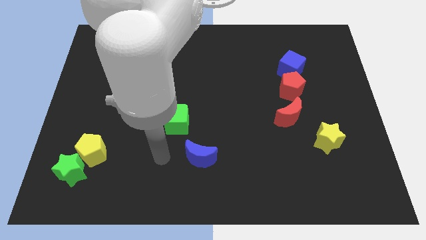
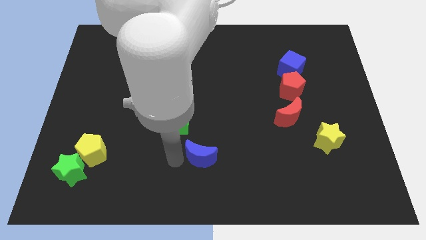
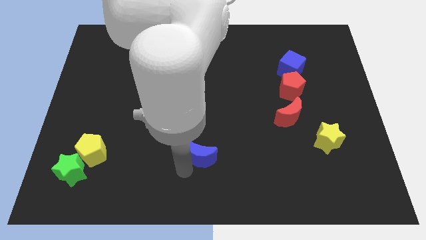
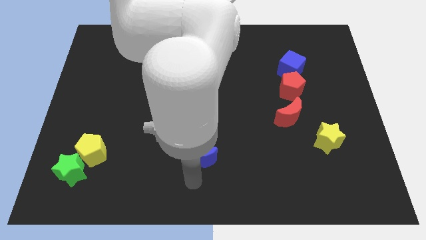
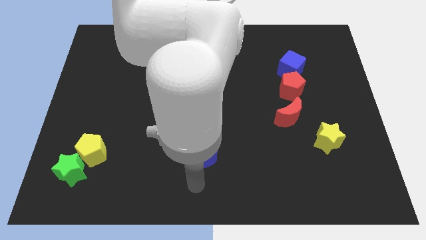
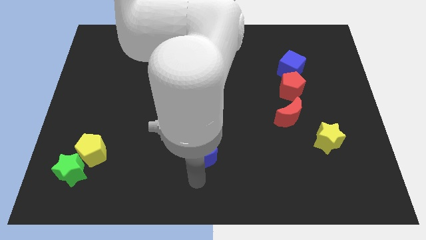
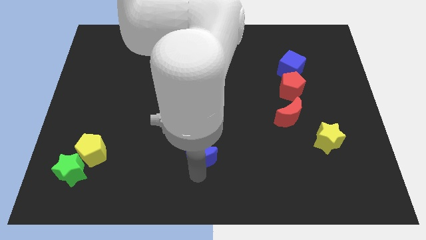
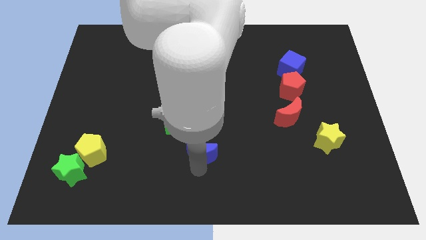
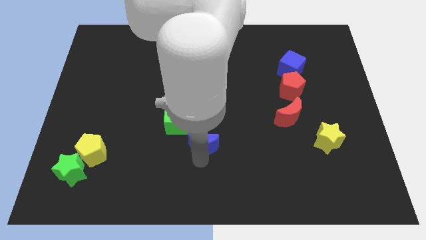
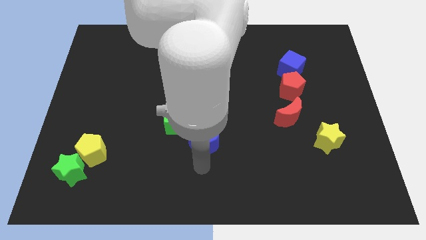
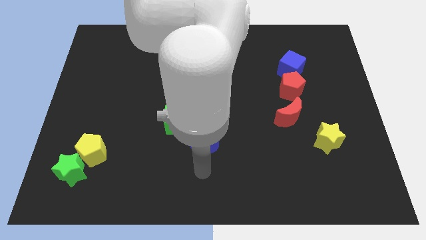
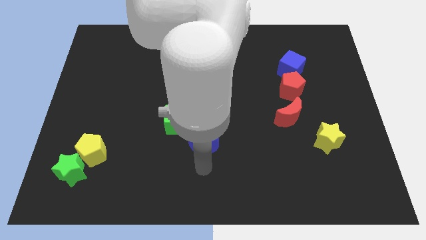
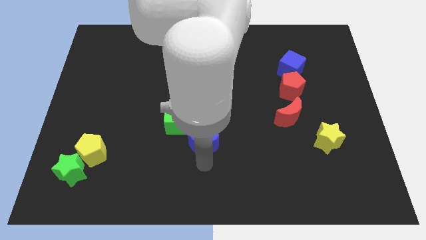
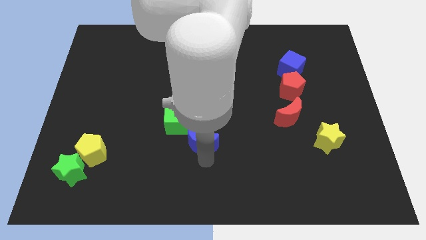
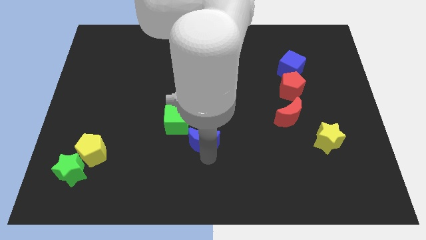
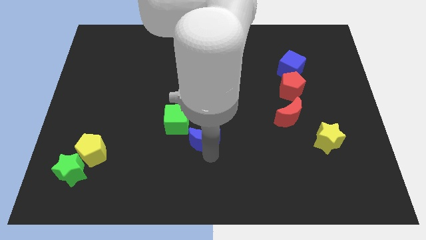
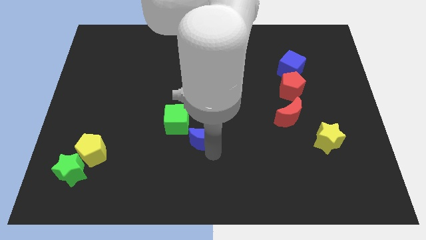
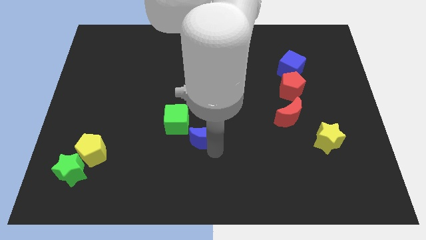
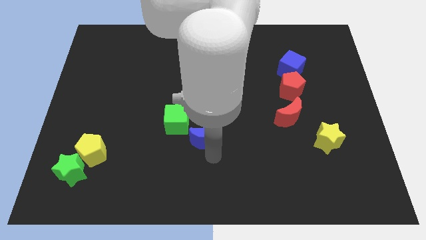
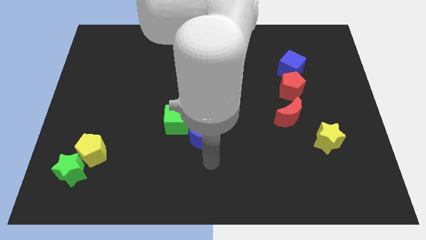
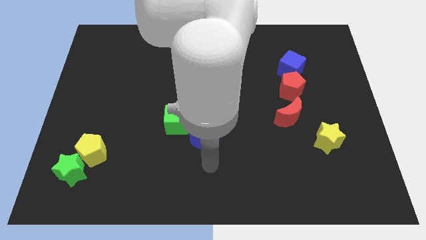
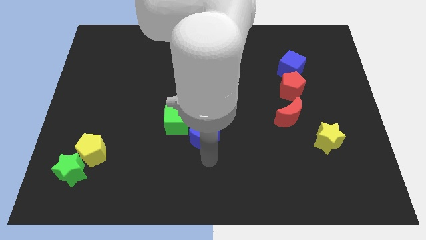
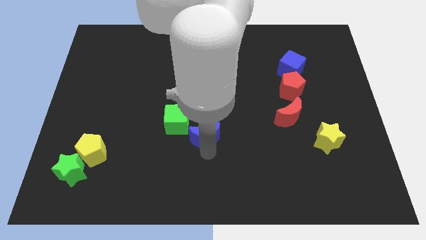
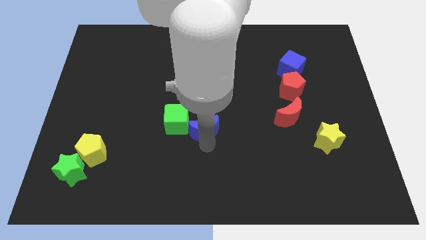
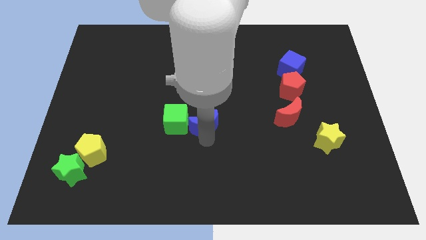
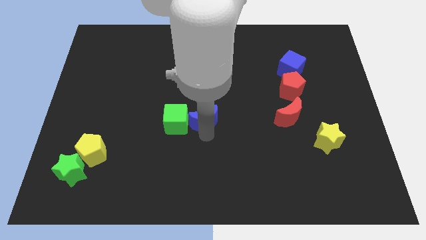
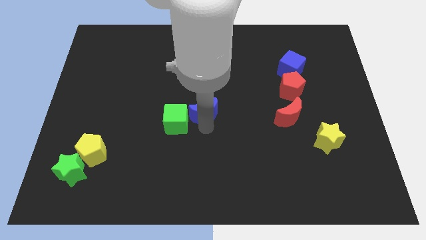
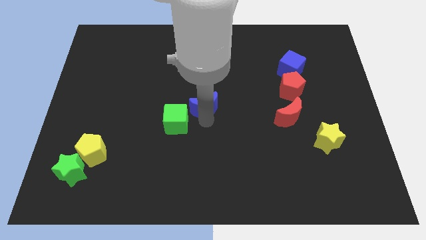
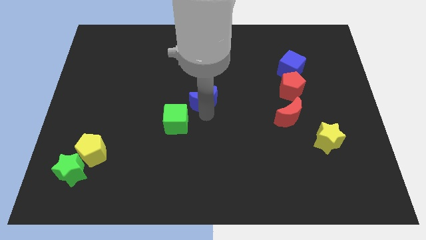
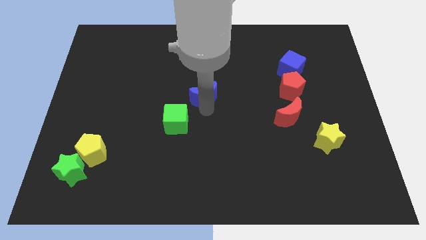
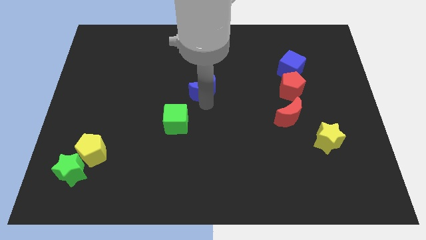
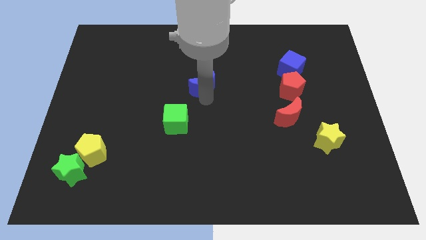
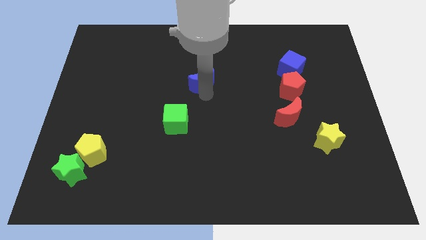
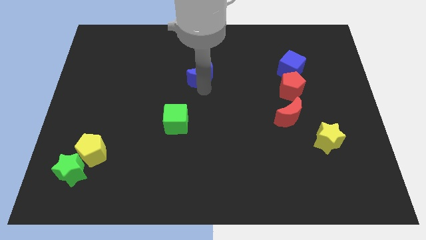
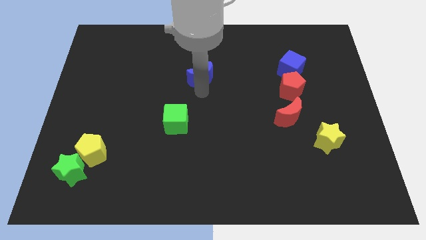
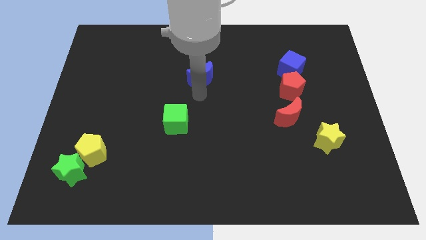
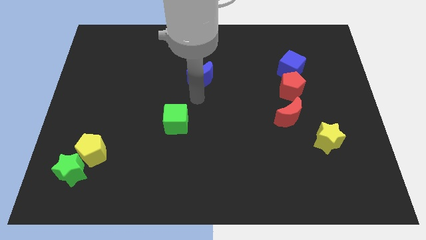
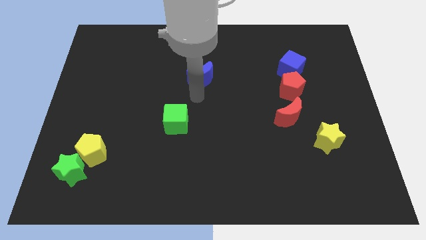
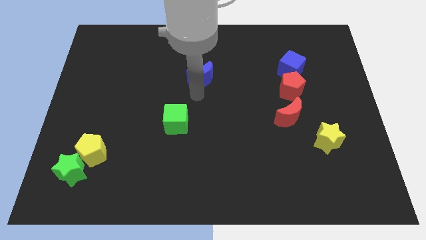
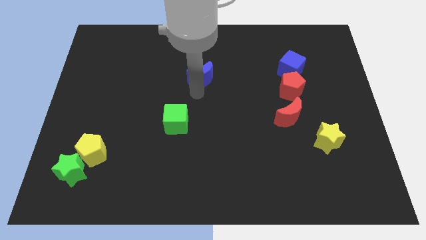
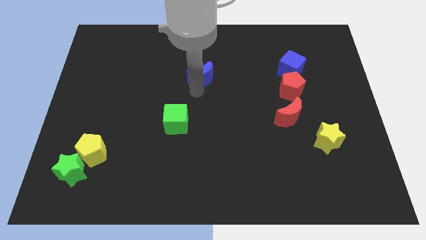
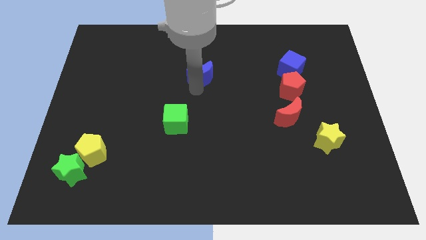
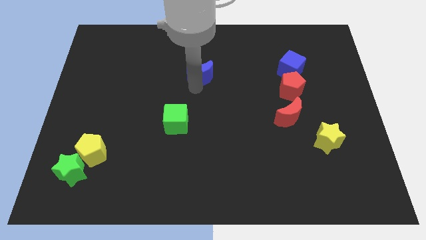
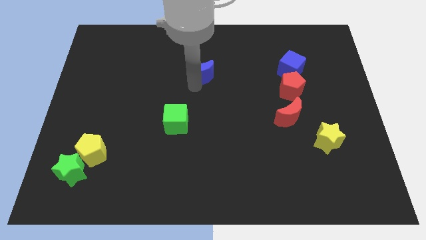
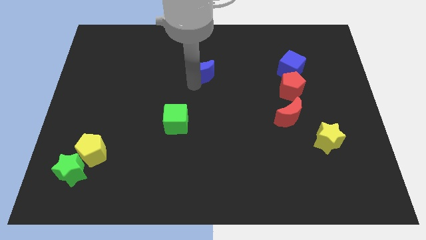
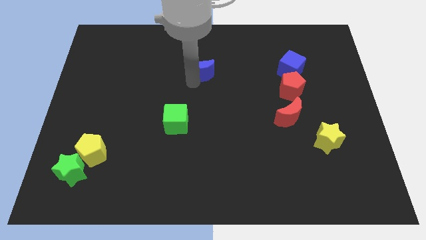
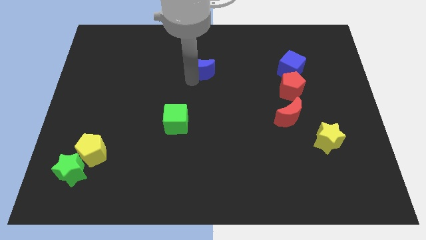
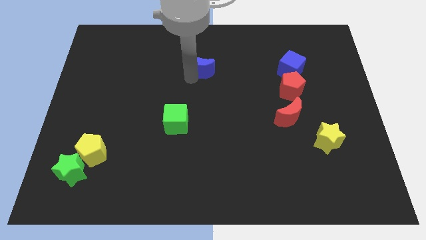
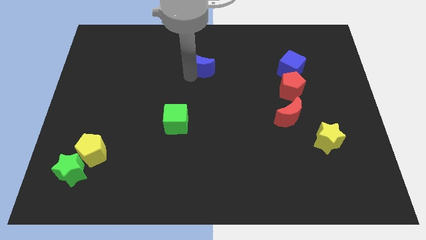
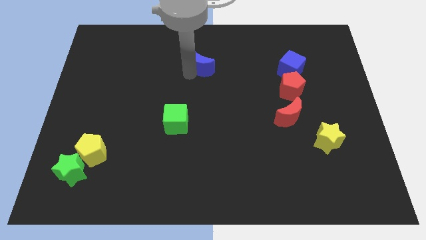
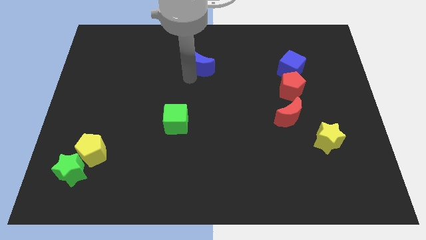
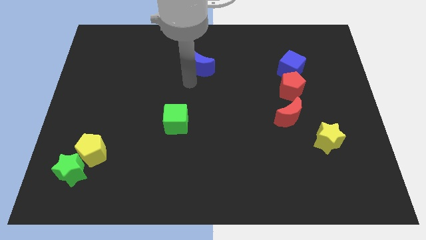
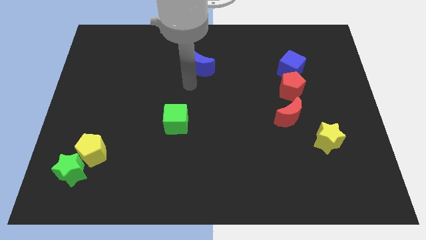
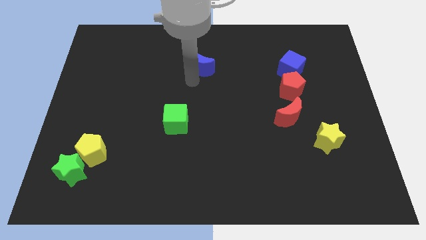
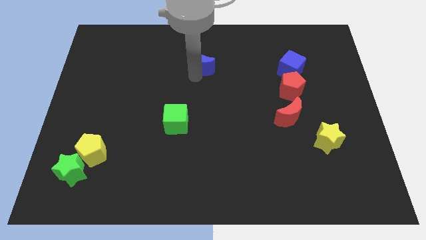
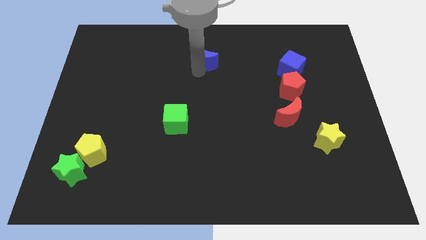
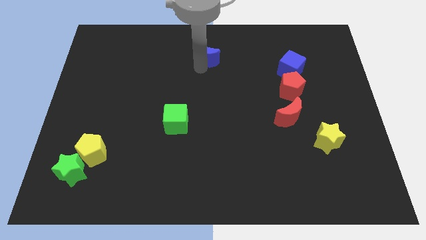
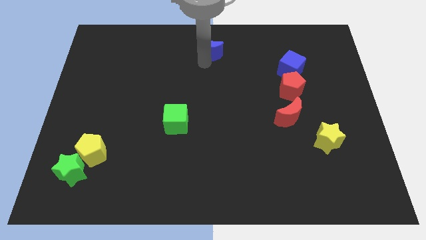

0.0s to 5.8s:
move the blue moon to the towards your base

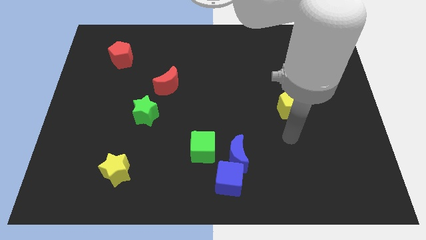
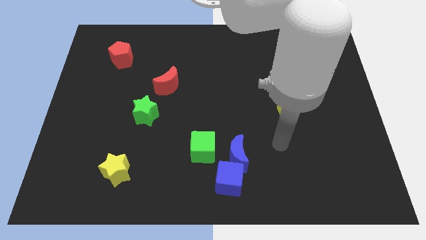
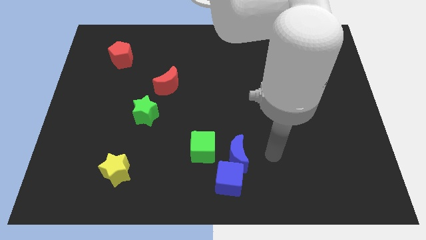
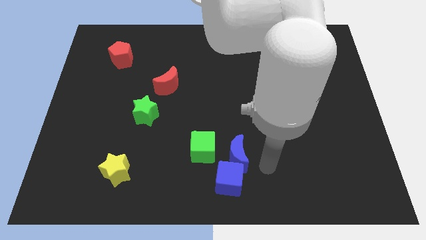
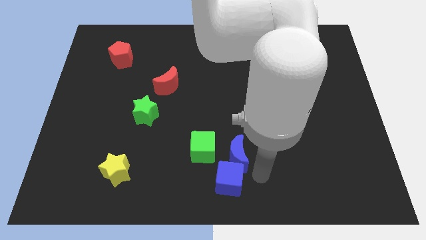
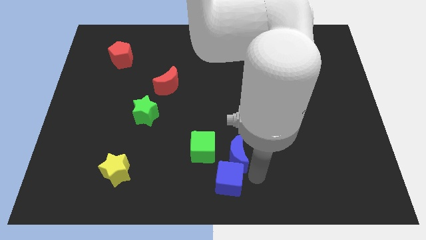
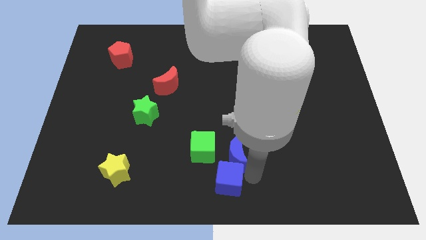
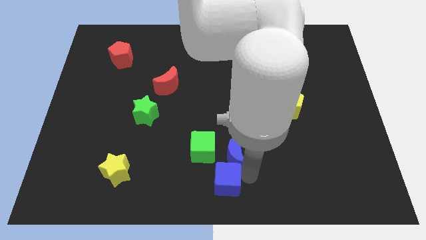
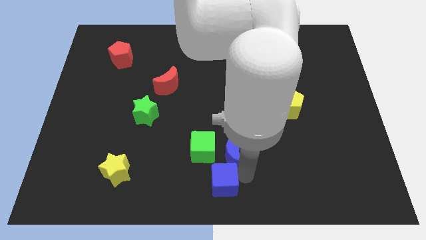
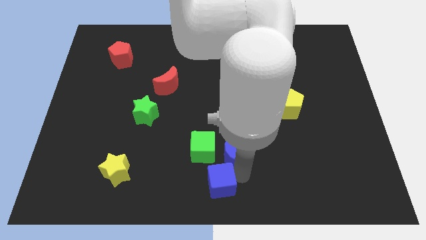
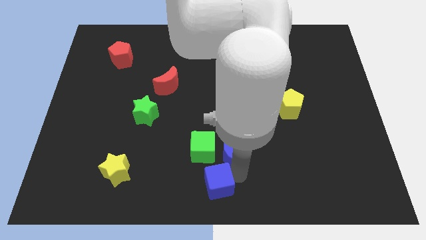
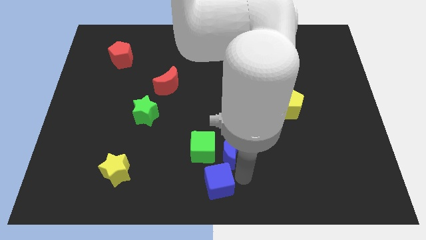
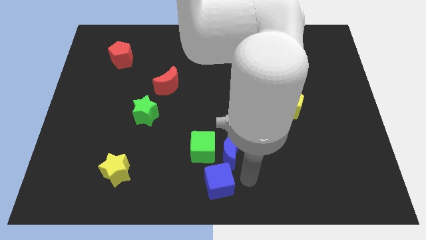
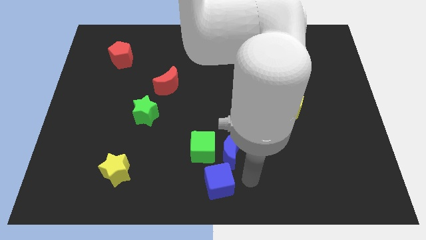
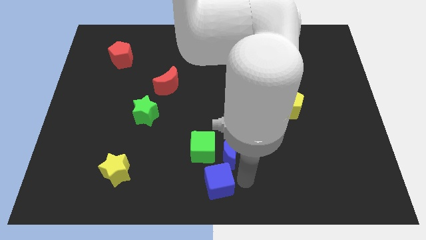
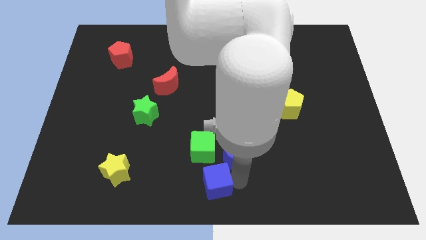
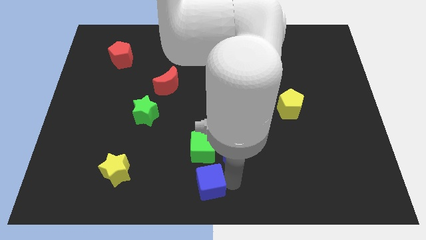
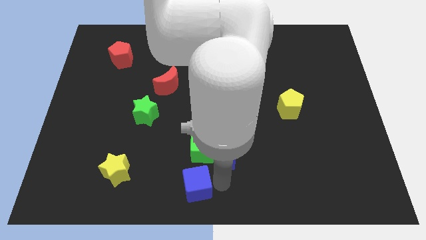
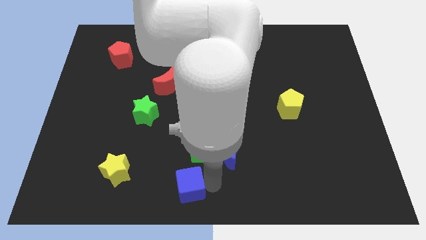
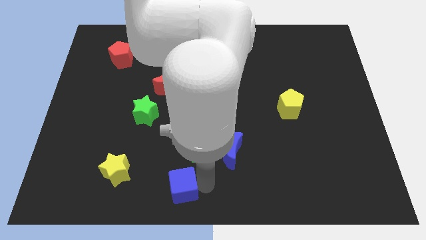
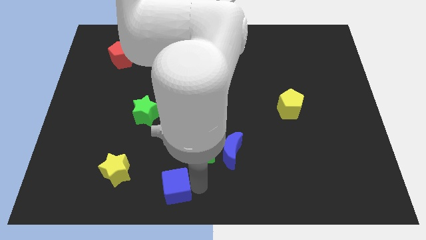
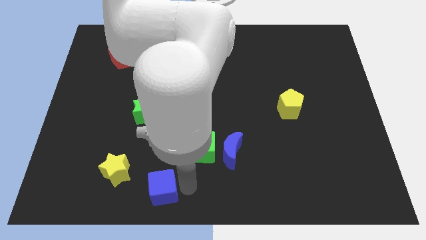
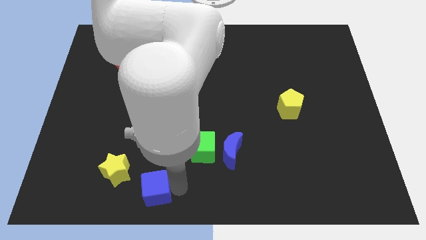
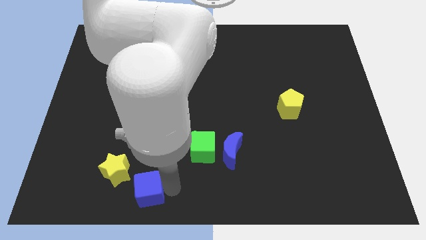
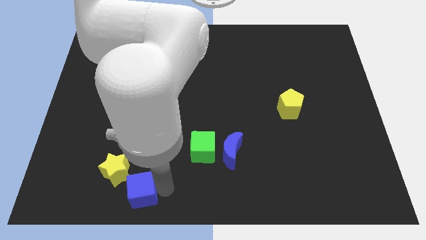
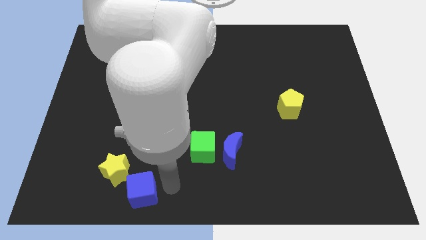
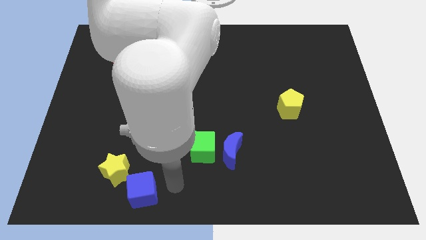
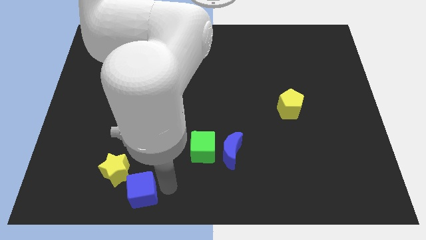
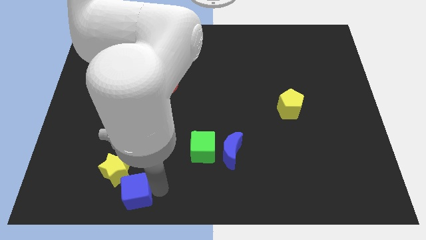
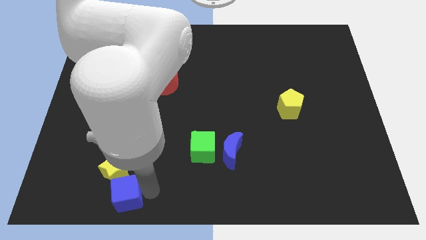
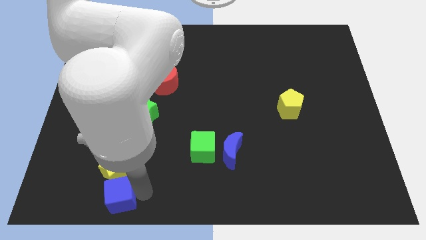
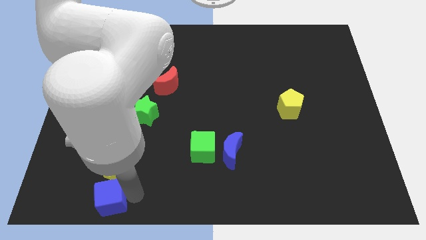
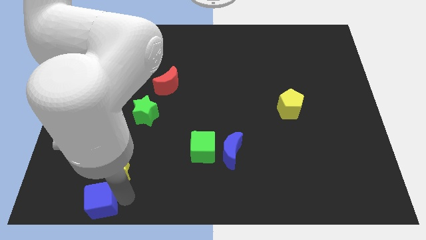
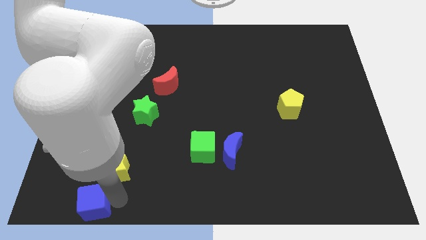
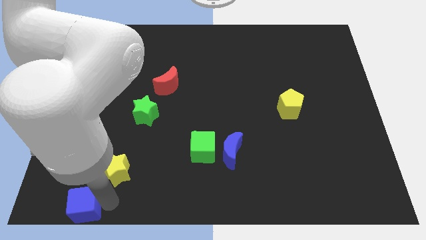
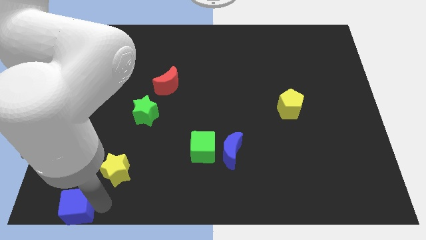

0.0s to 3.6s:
put the blue cube to the bottom left of the board
